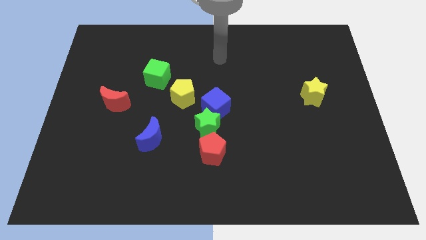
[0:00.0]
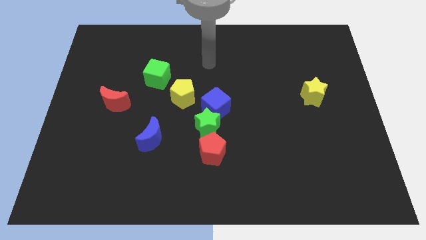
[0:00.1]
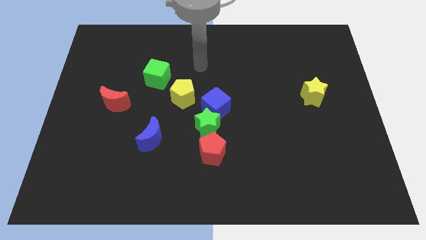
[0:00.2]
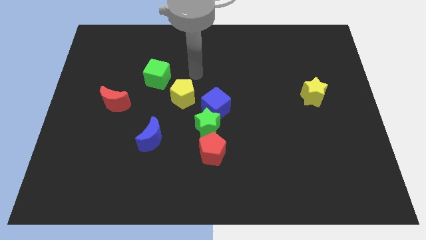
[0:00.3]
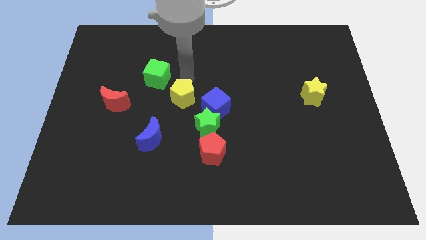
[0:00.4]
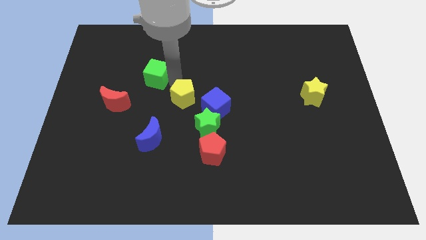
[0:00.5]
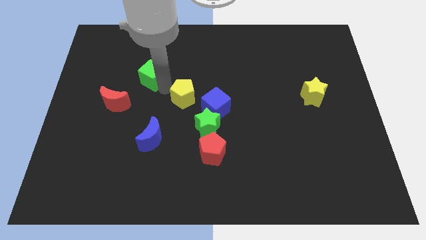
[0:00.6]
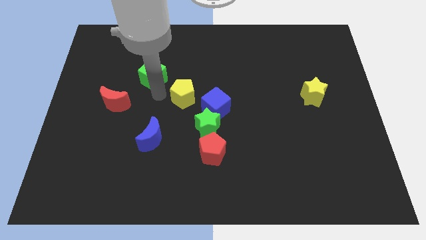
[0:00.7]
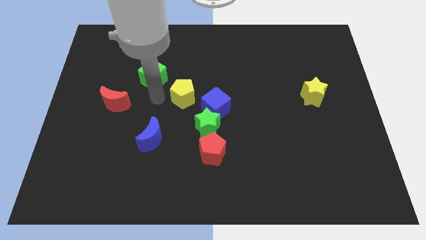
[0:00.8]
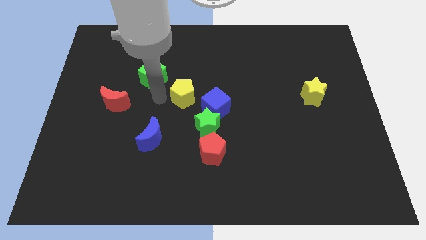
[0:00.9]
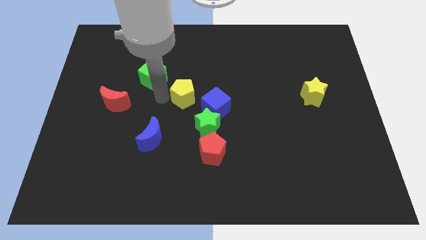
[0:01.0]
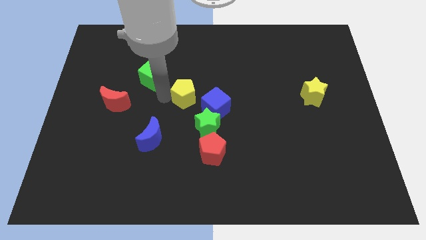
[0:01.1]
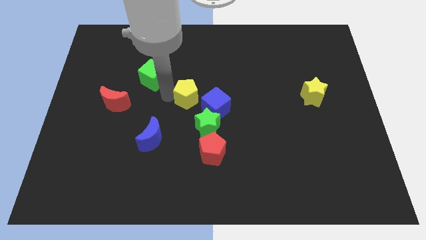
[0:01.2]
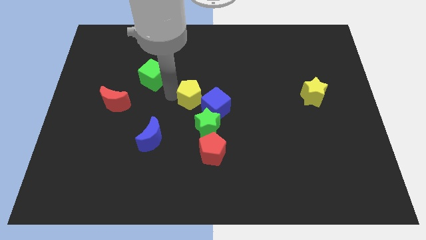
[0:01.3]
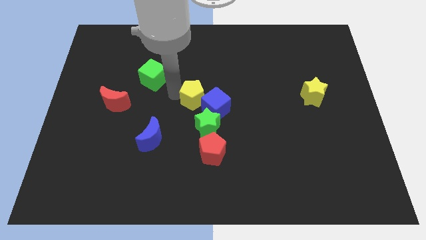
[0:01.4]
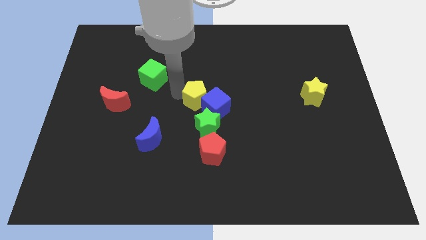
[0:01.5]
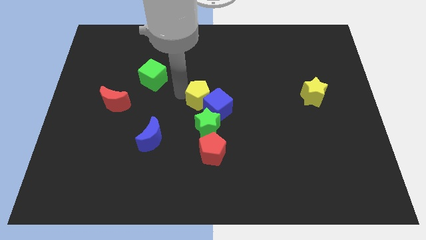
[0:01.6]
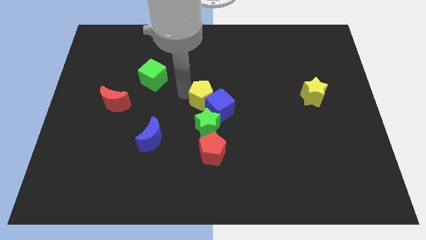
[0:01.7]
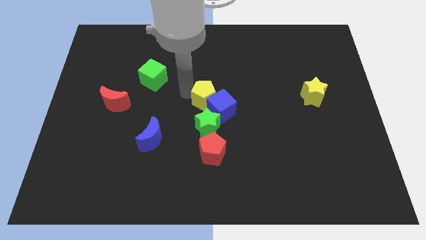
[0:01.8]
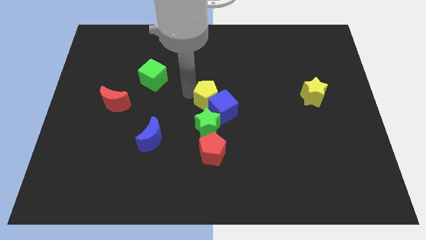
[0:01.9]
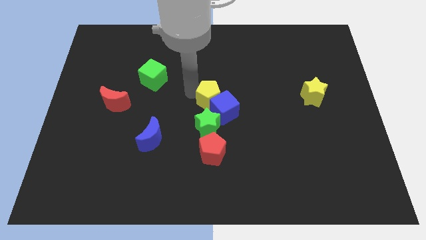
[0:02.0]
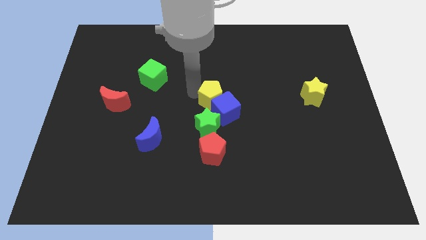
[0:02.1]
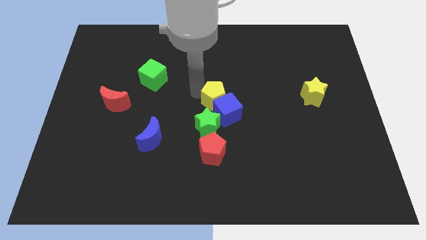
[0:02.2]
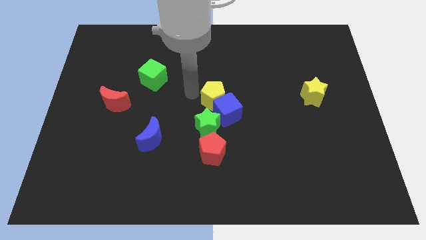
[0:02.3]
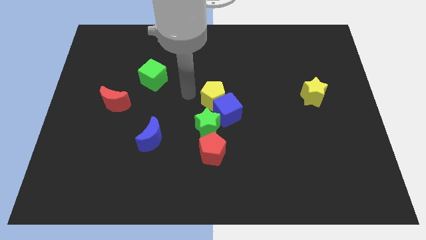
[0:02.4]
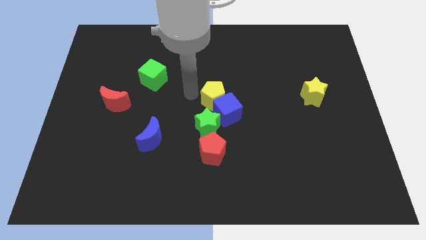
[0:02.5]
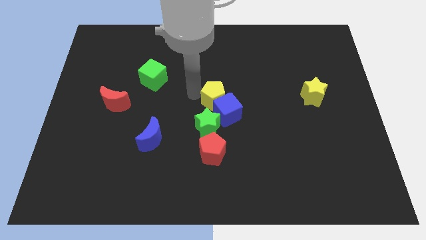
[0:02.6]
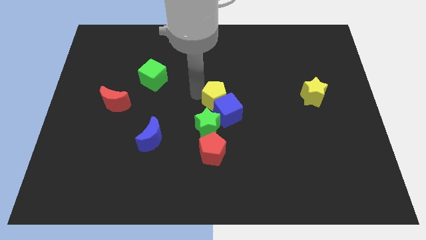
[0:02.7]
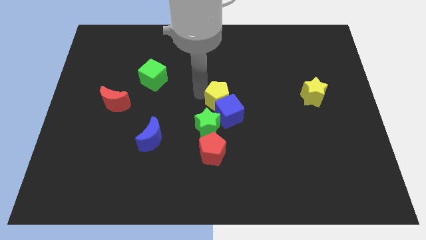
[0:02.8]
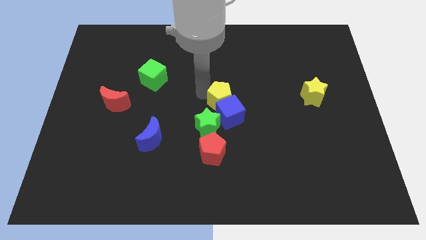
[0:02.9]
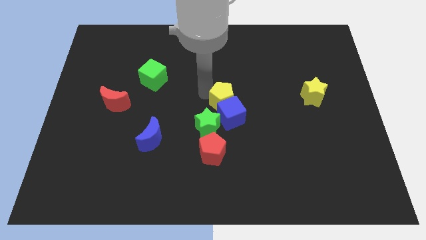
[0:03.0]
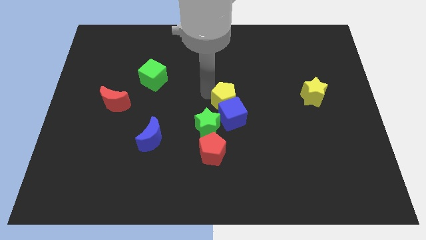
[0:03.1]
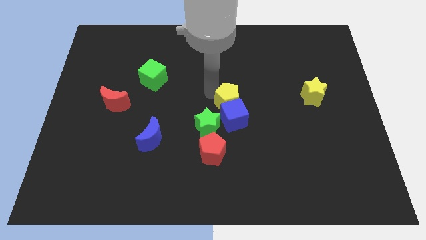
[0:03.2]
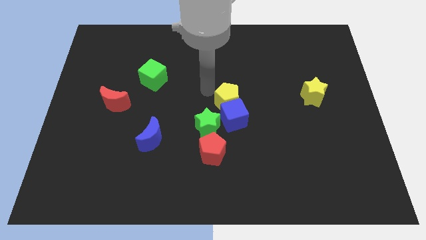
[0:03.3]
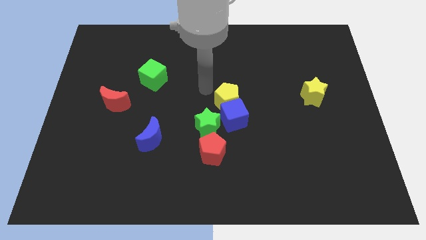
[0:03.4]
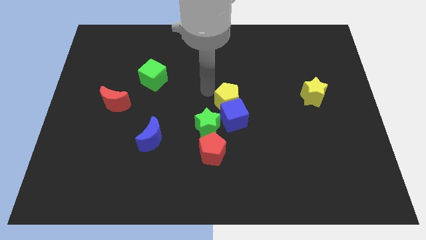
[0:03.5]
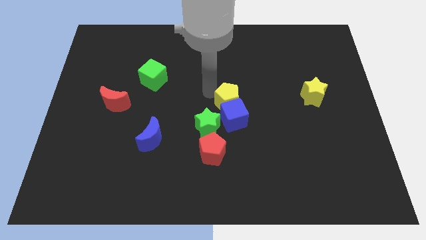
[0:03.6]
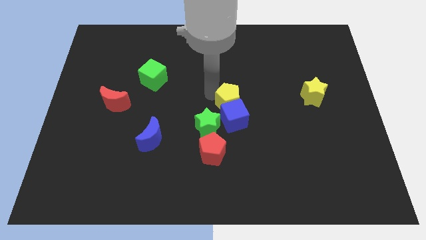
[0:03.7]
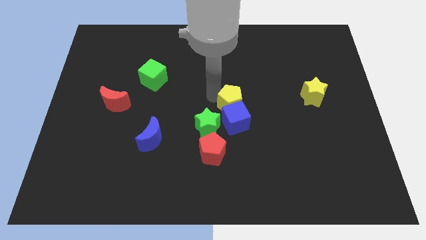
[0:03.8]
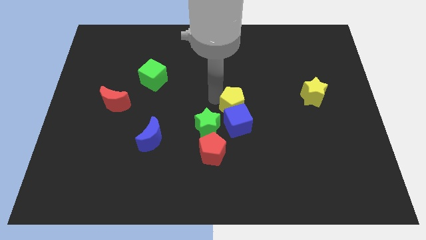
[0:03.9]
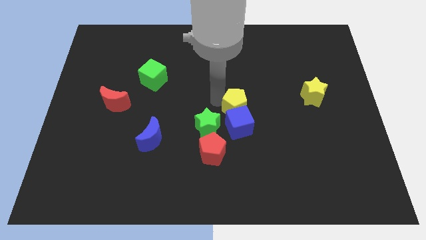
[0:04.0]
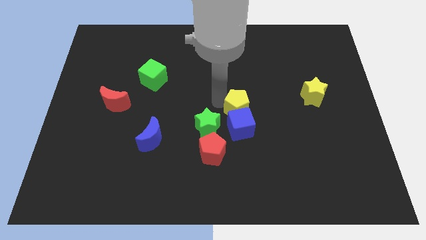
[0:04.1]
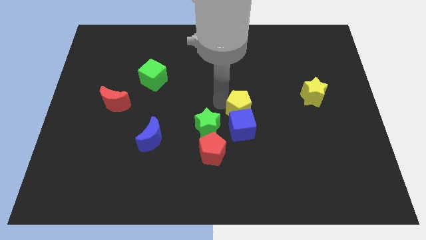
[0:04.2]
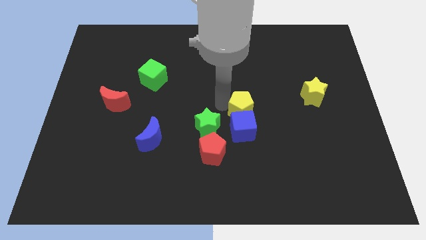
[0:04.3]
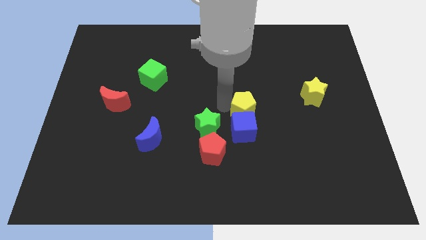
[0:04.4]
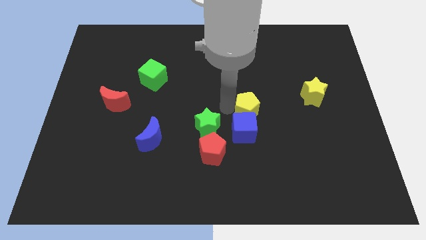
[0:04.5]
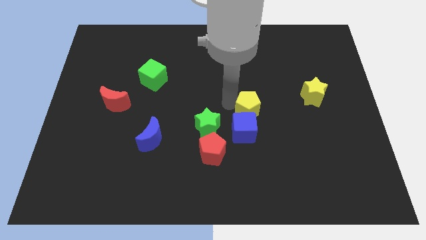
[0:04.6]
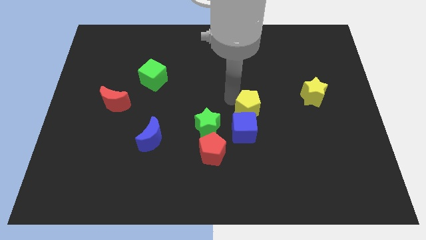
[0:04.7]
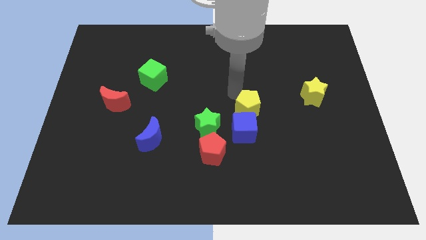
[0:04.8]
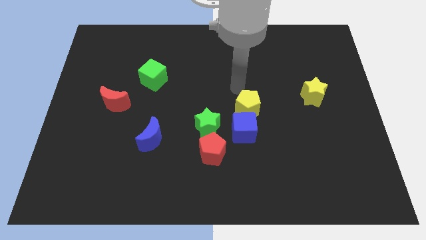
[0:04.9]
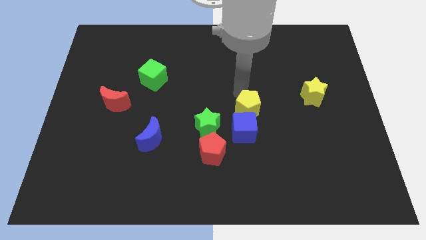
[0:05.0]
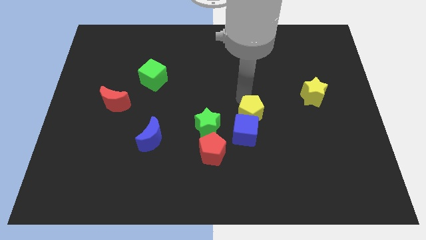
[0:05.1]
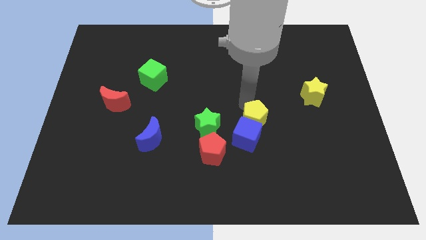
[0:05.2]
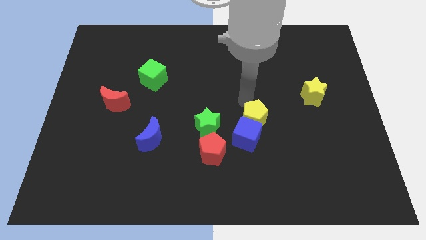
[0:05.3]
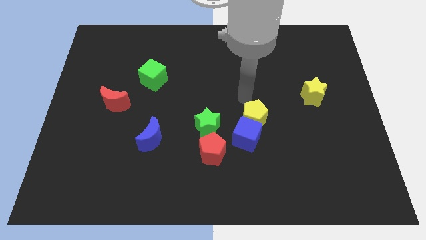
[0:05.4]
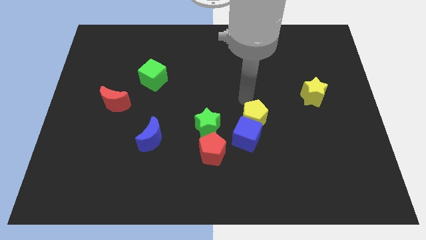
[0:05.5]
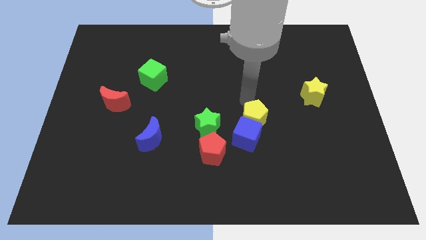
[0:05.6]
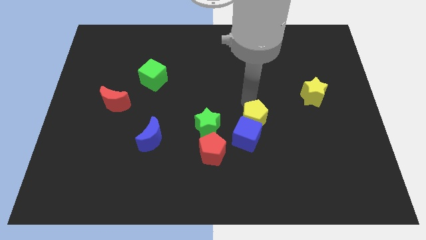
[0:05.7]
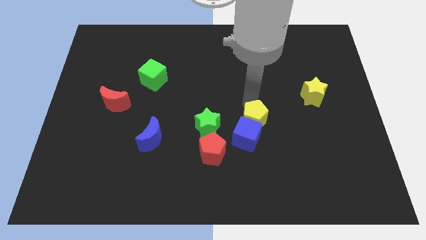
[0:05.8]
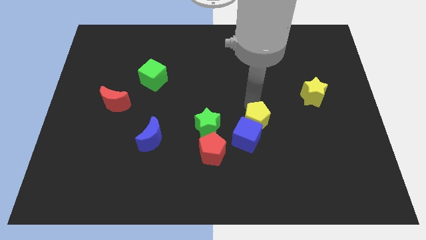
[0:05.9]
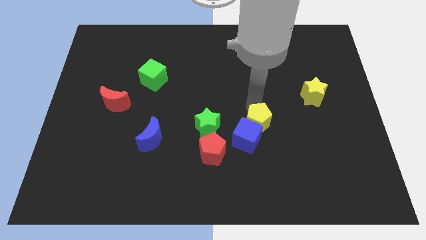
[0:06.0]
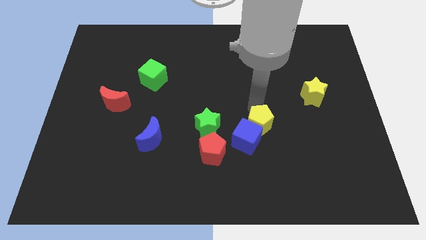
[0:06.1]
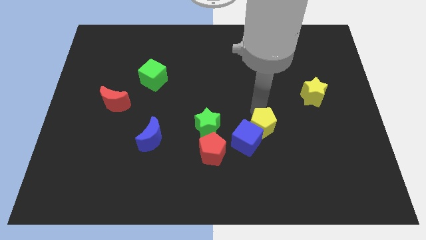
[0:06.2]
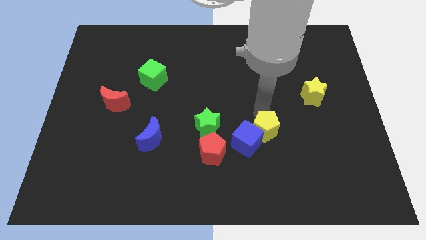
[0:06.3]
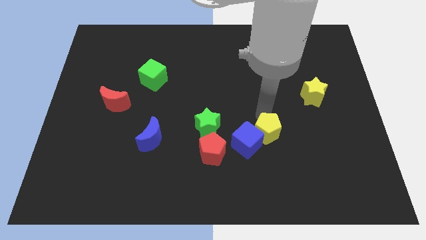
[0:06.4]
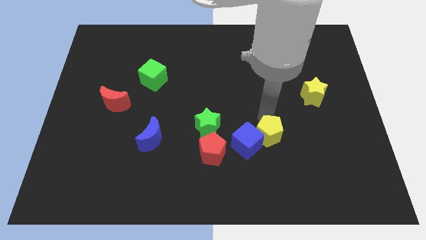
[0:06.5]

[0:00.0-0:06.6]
push the yellow pentagon downwards and right

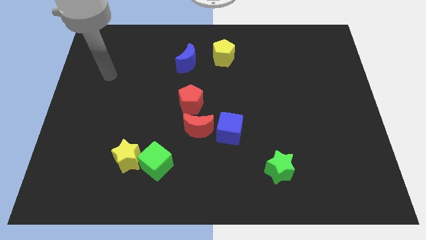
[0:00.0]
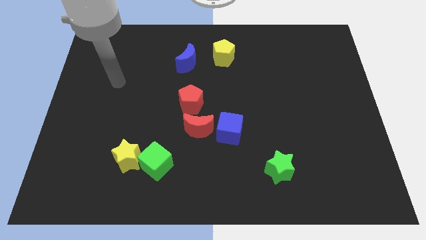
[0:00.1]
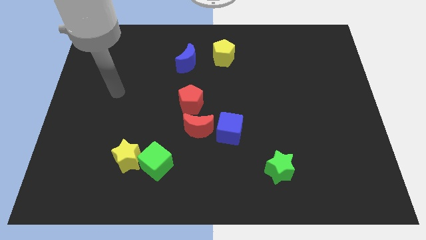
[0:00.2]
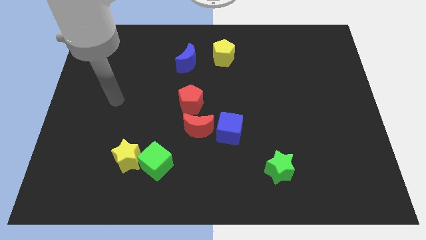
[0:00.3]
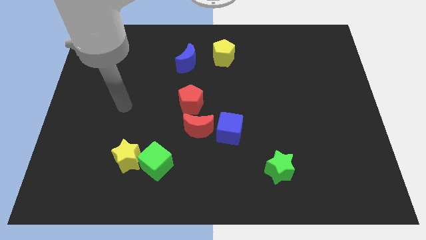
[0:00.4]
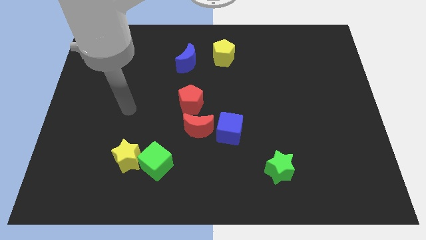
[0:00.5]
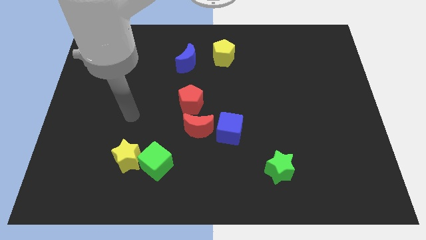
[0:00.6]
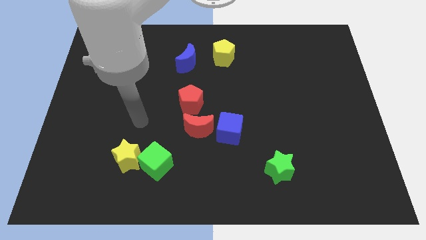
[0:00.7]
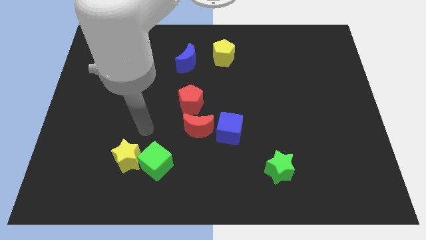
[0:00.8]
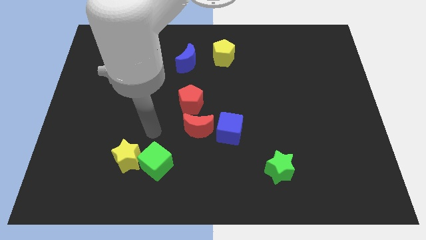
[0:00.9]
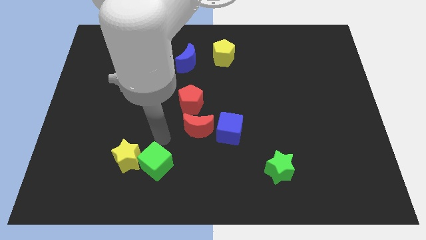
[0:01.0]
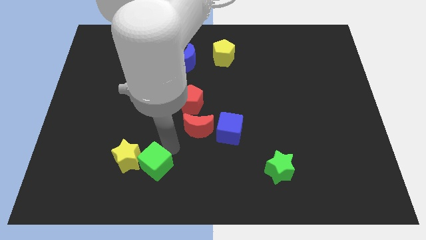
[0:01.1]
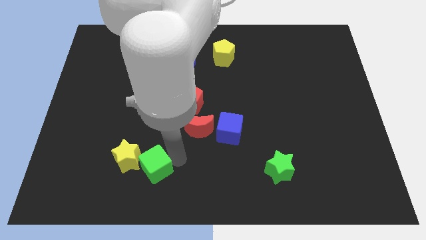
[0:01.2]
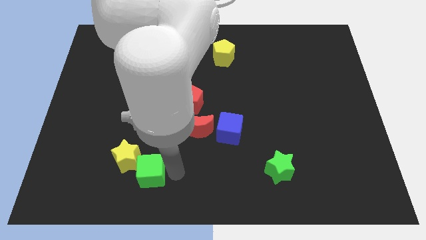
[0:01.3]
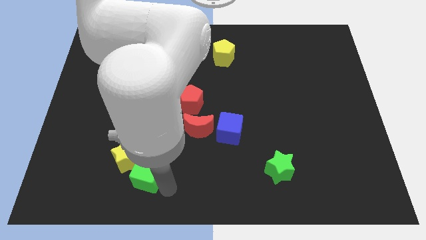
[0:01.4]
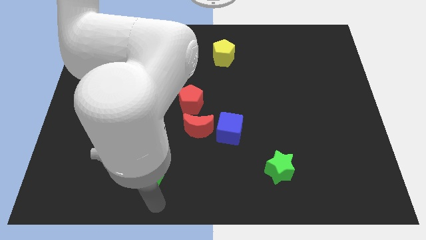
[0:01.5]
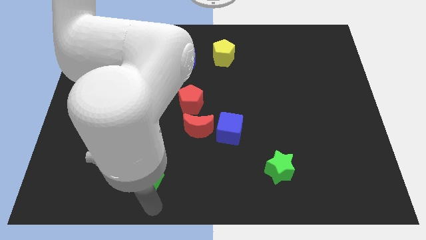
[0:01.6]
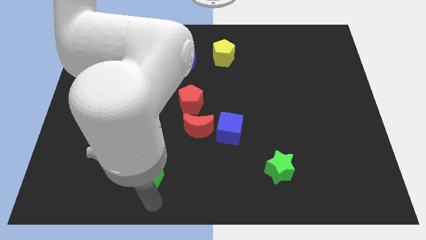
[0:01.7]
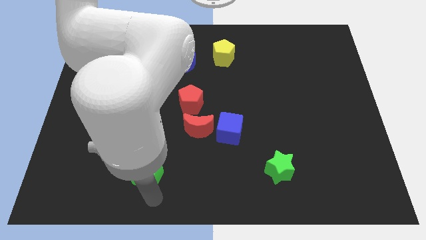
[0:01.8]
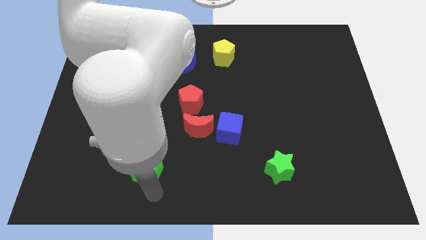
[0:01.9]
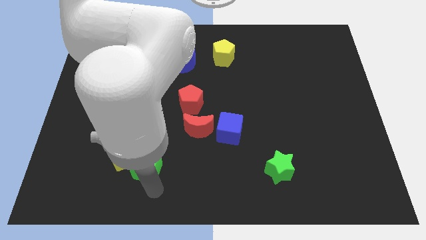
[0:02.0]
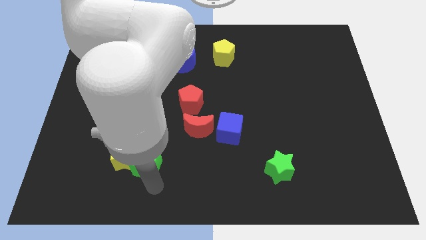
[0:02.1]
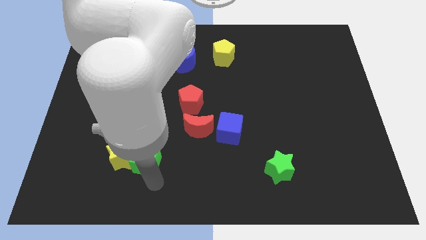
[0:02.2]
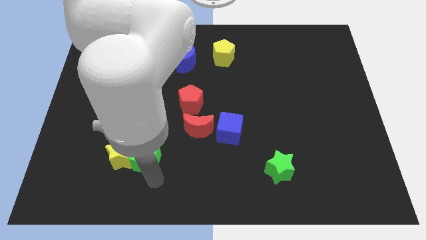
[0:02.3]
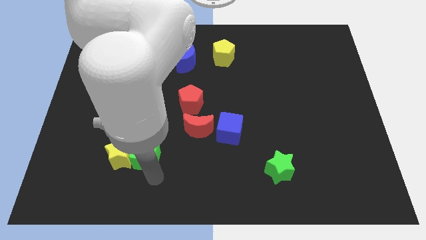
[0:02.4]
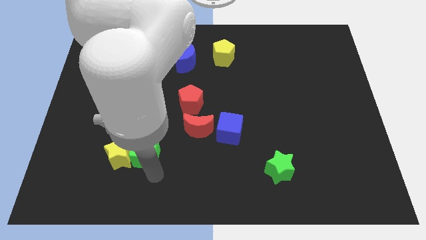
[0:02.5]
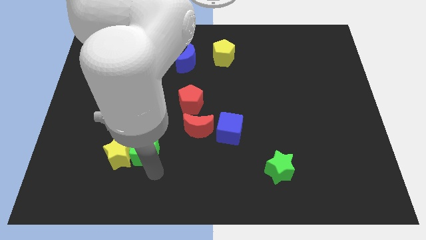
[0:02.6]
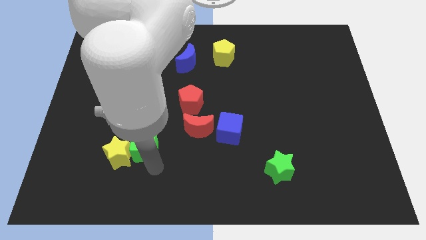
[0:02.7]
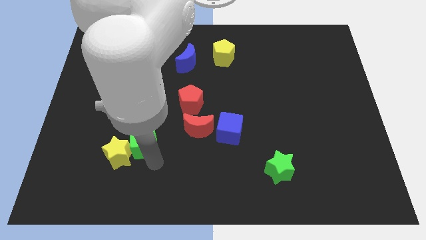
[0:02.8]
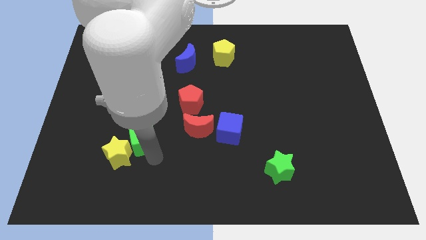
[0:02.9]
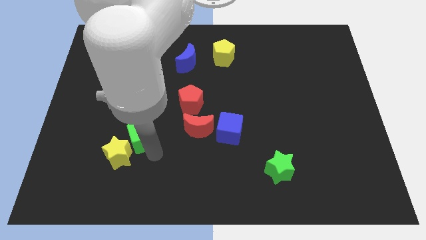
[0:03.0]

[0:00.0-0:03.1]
move the green cube a bit upwards and to the left diagonally
